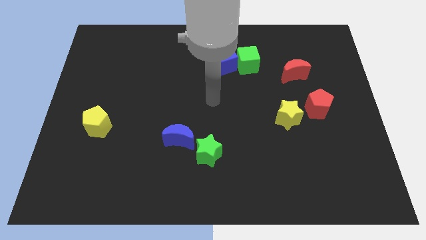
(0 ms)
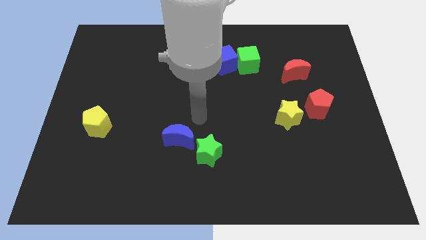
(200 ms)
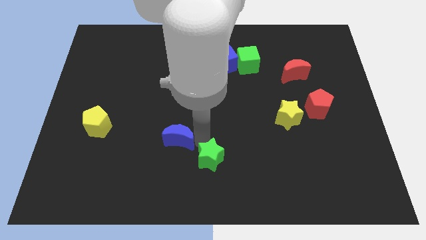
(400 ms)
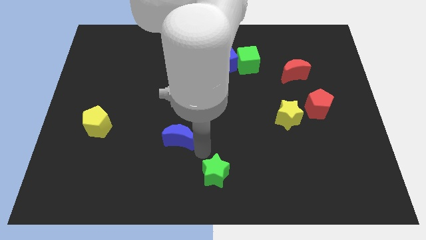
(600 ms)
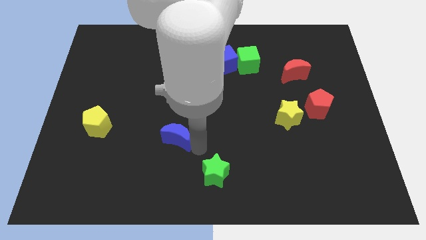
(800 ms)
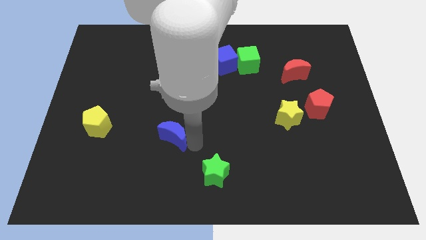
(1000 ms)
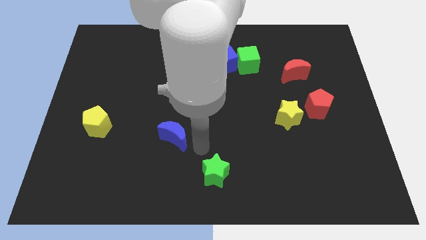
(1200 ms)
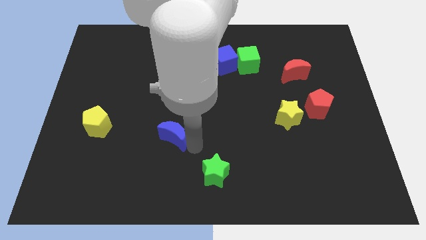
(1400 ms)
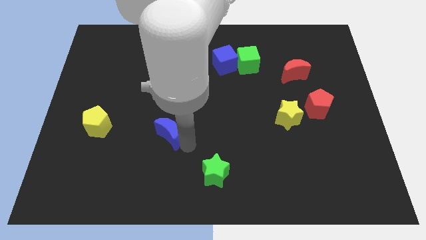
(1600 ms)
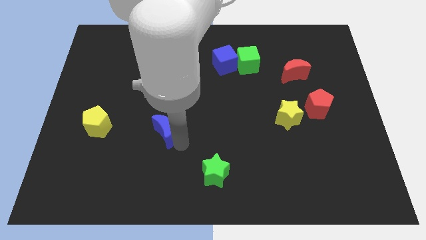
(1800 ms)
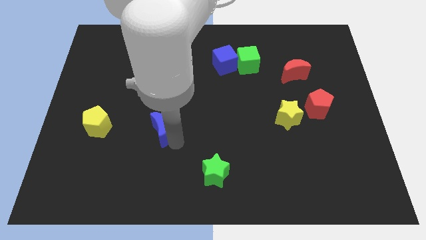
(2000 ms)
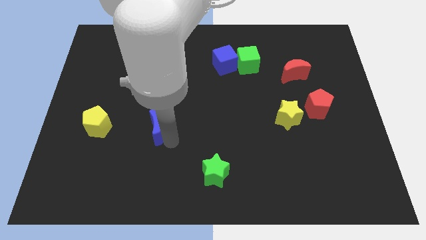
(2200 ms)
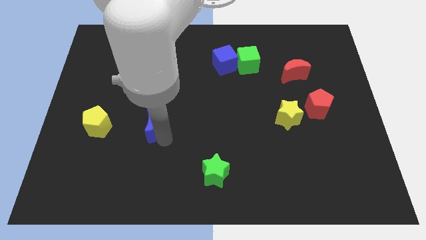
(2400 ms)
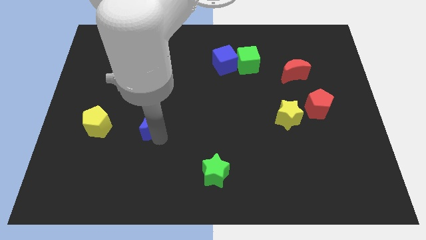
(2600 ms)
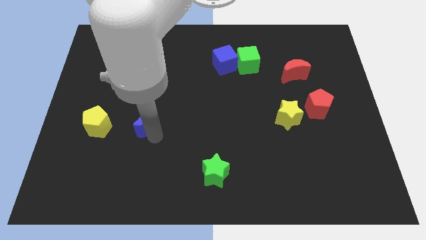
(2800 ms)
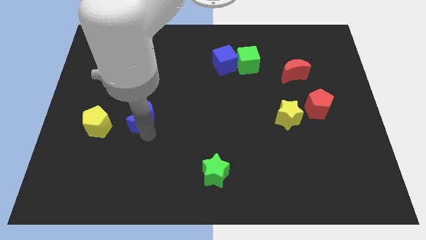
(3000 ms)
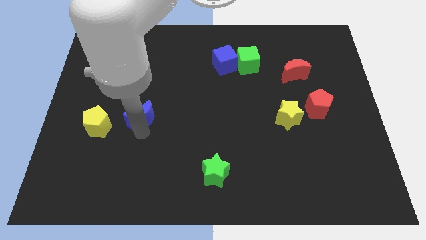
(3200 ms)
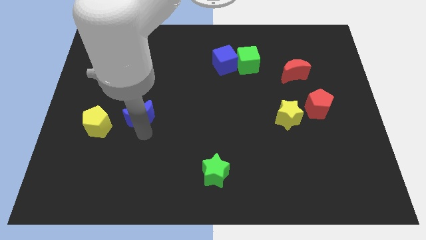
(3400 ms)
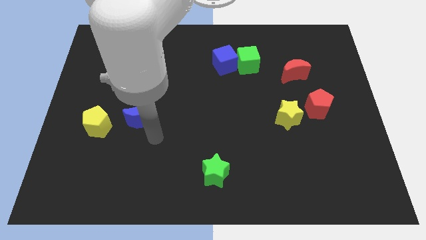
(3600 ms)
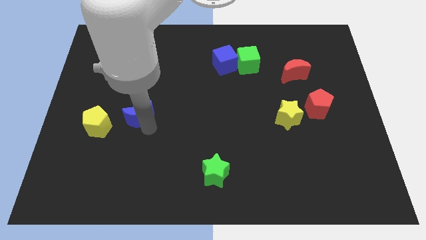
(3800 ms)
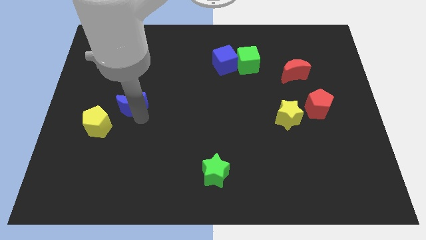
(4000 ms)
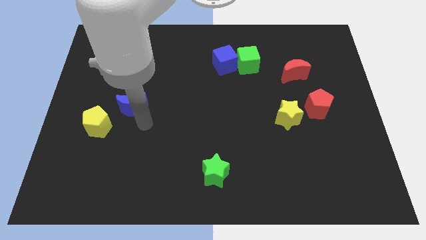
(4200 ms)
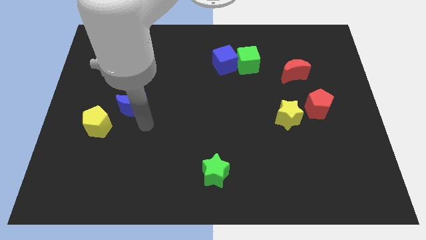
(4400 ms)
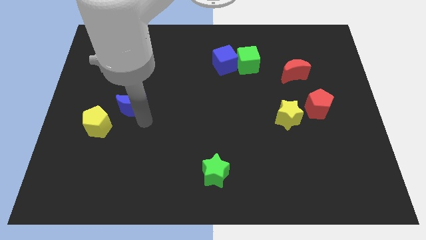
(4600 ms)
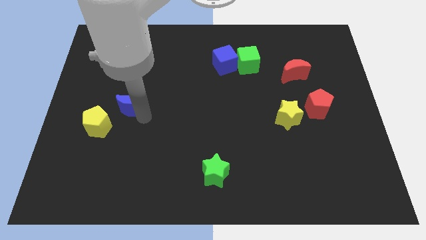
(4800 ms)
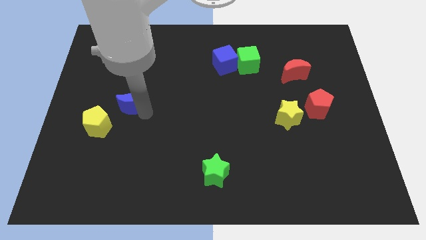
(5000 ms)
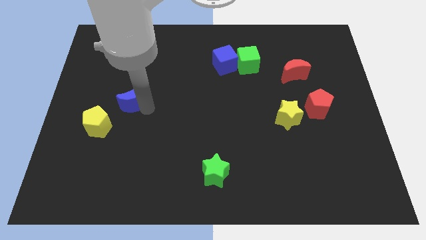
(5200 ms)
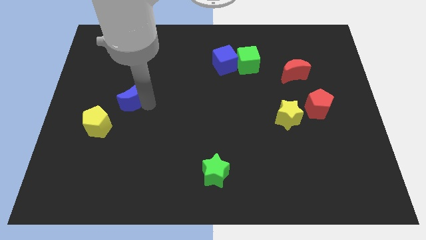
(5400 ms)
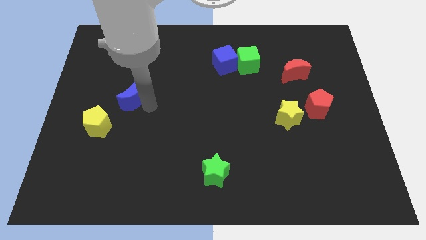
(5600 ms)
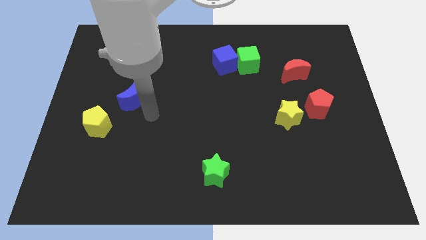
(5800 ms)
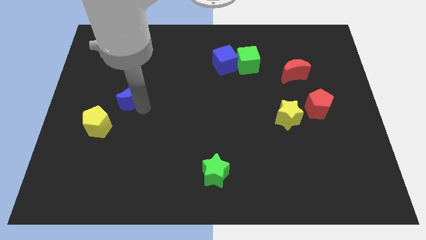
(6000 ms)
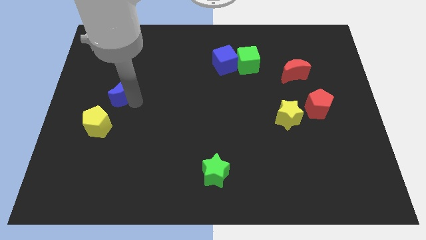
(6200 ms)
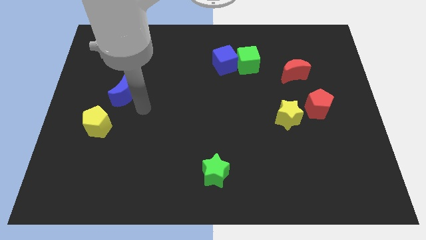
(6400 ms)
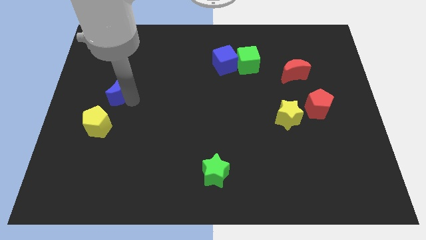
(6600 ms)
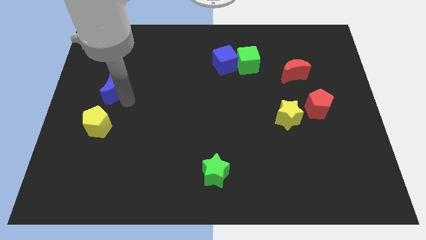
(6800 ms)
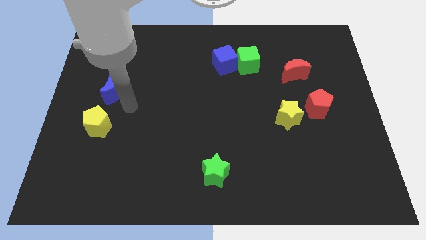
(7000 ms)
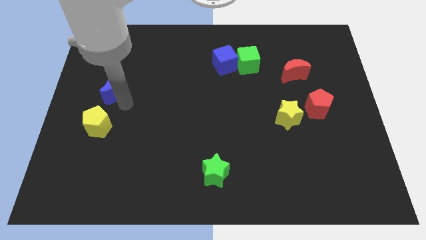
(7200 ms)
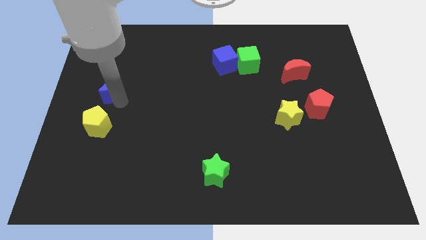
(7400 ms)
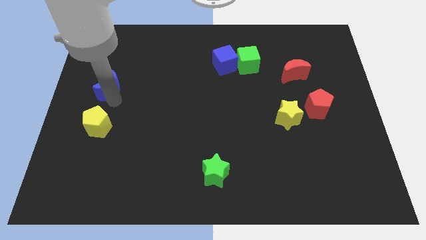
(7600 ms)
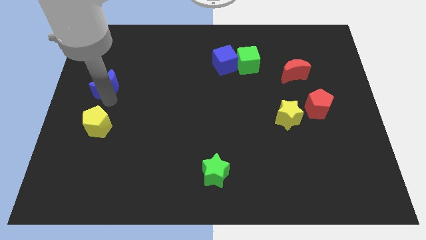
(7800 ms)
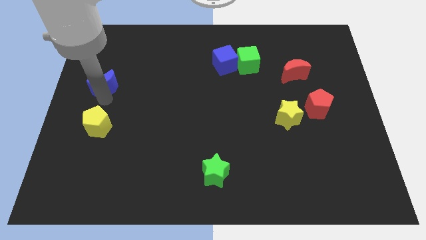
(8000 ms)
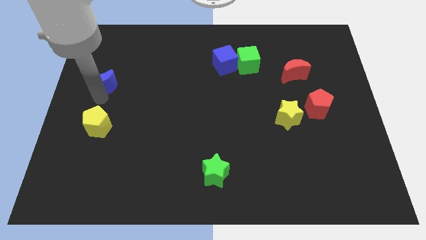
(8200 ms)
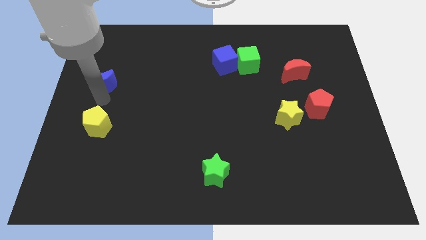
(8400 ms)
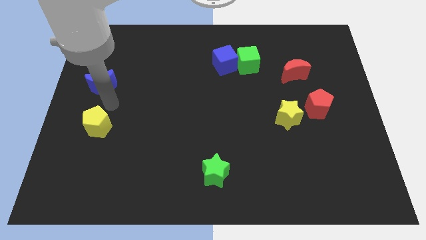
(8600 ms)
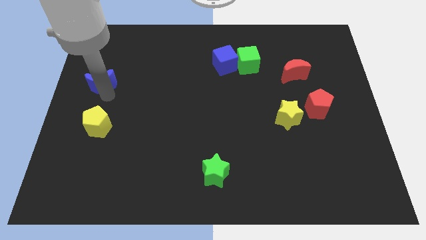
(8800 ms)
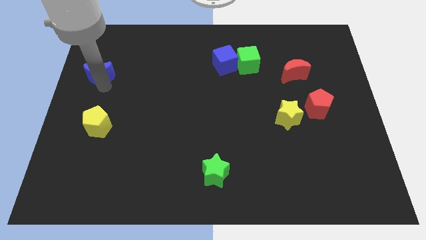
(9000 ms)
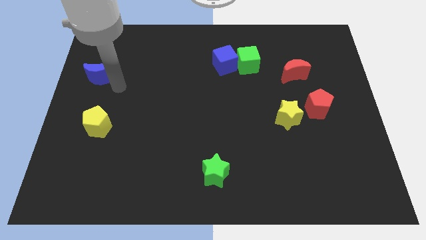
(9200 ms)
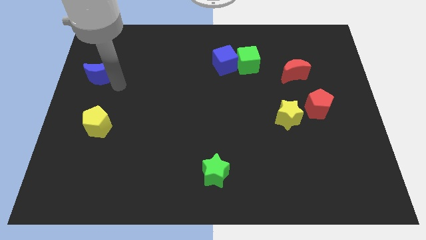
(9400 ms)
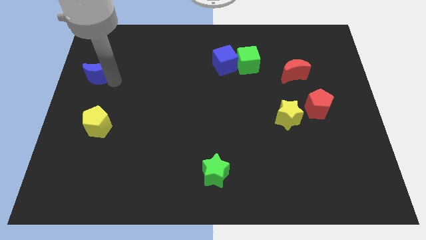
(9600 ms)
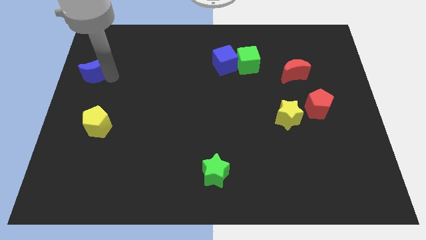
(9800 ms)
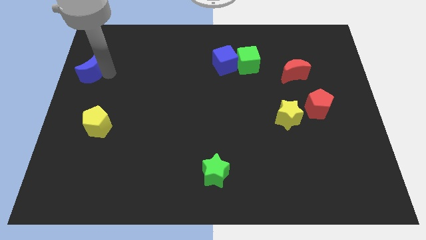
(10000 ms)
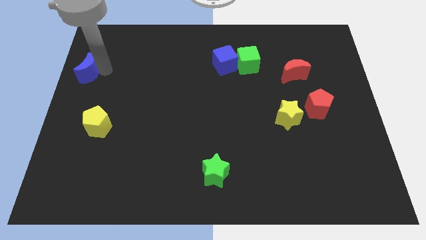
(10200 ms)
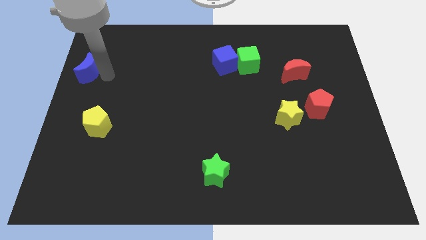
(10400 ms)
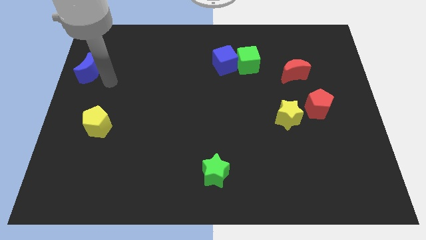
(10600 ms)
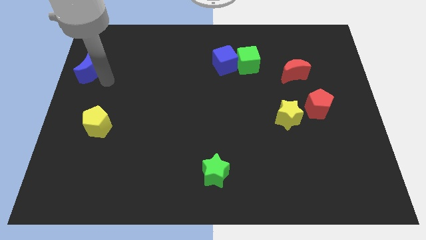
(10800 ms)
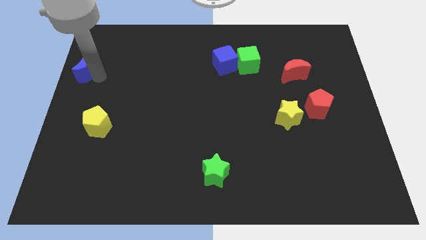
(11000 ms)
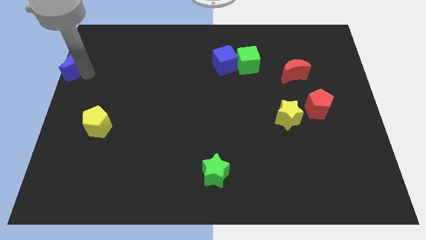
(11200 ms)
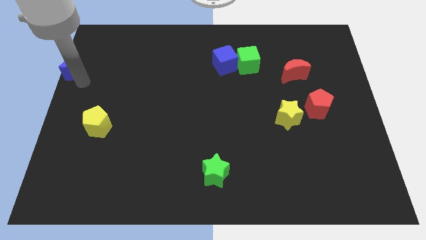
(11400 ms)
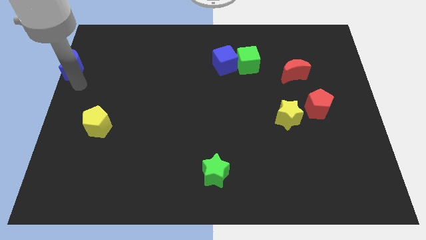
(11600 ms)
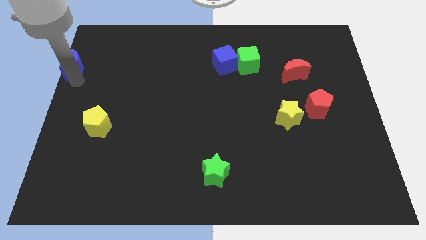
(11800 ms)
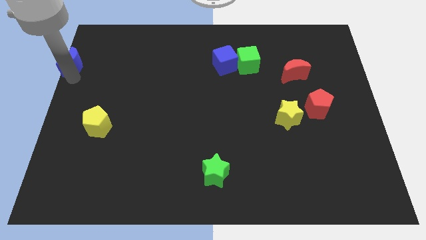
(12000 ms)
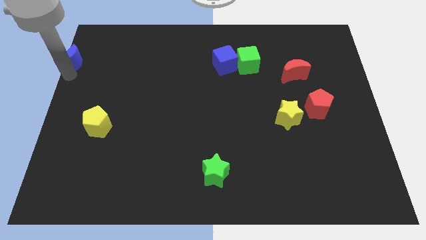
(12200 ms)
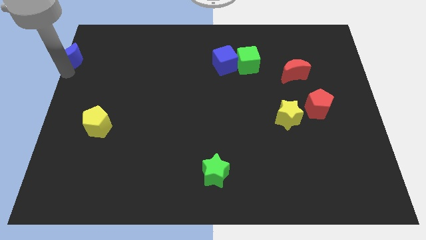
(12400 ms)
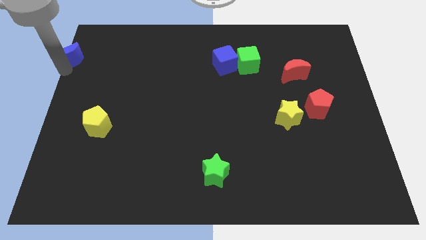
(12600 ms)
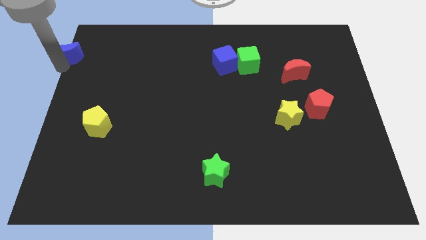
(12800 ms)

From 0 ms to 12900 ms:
move the blue moon to the top left
